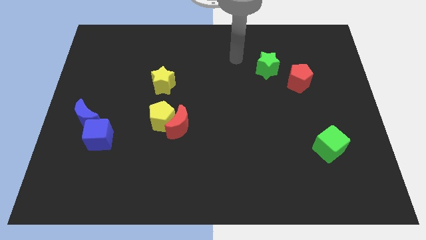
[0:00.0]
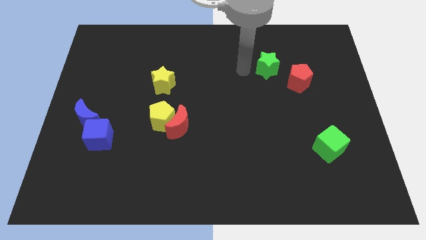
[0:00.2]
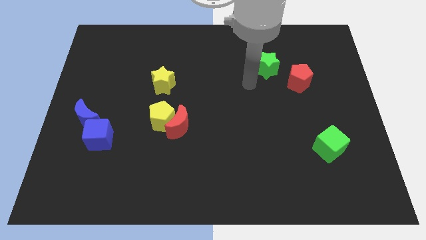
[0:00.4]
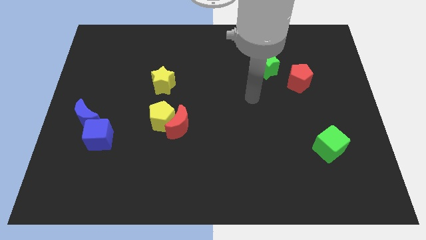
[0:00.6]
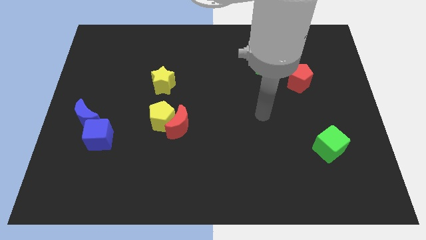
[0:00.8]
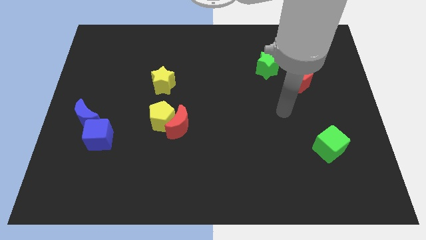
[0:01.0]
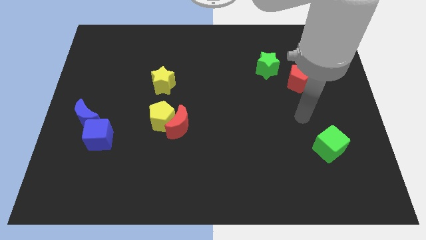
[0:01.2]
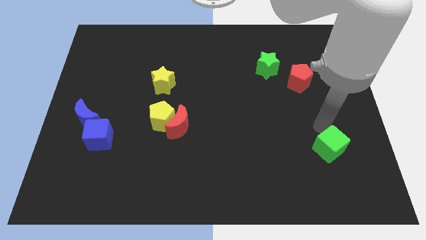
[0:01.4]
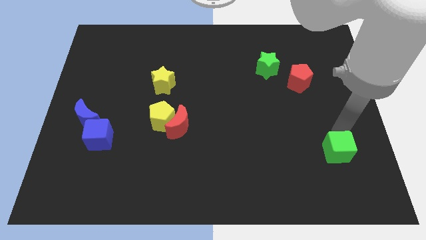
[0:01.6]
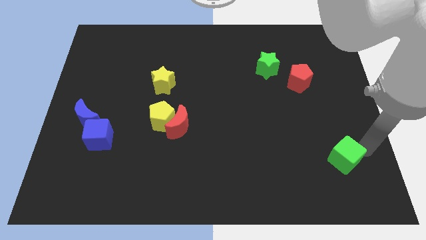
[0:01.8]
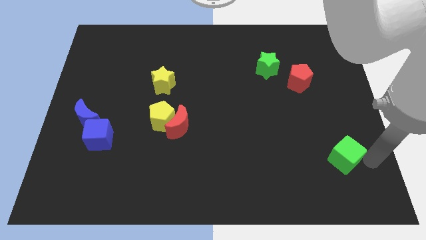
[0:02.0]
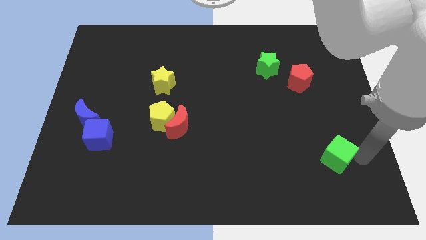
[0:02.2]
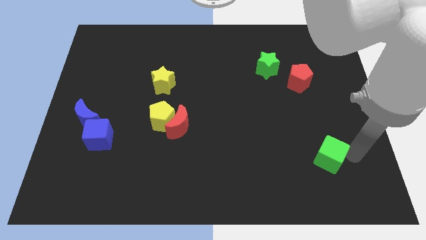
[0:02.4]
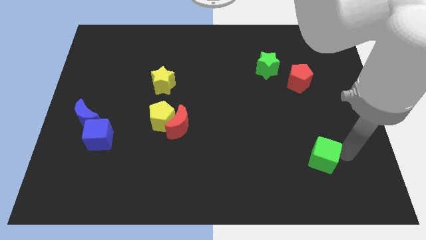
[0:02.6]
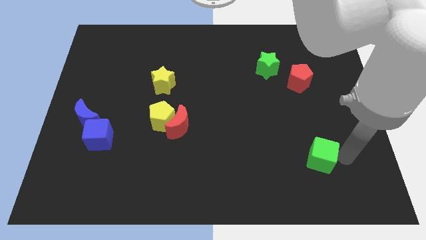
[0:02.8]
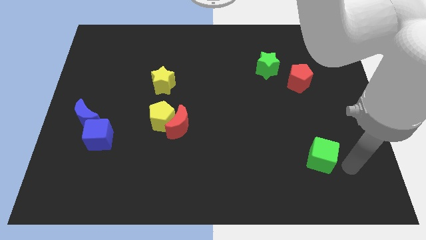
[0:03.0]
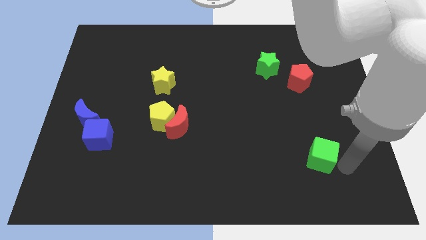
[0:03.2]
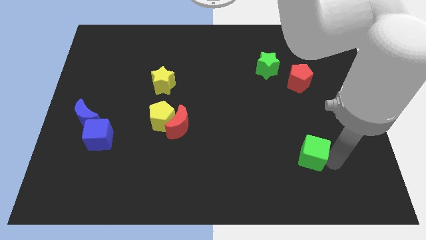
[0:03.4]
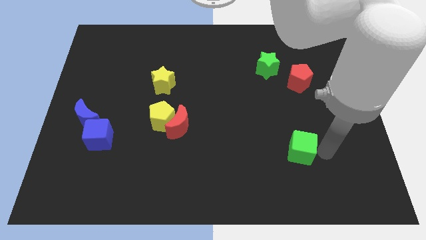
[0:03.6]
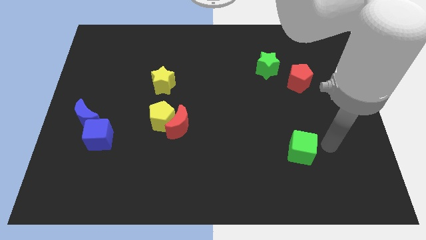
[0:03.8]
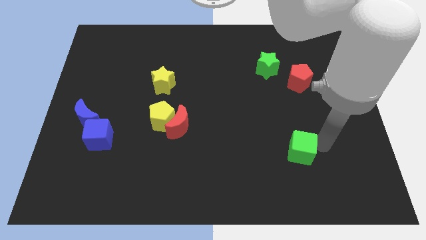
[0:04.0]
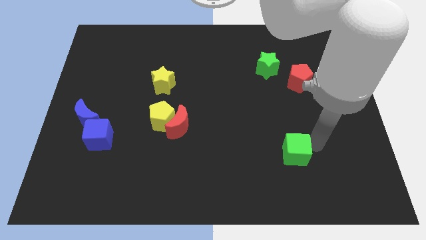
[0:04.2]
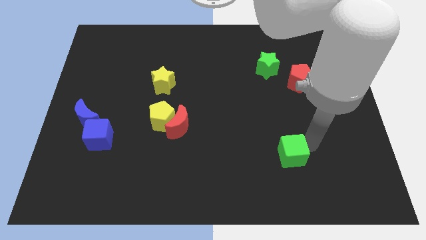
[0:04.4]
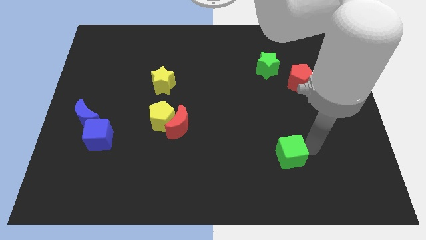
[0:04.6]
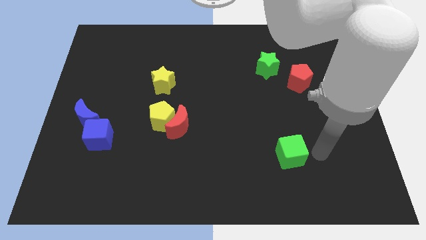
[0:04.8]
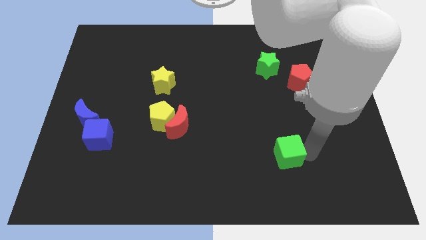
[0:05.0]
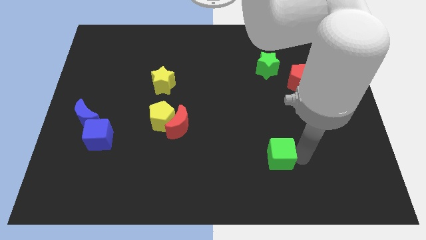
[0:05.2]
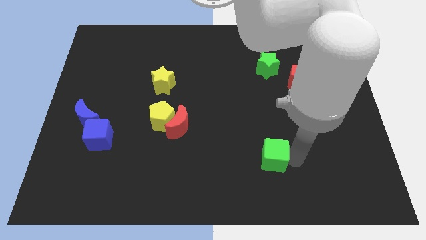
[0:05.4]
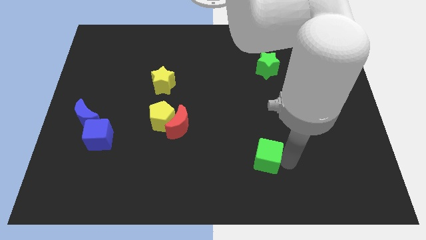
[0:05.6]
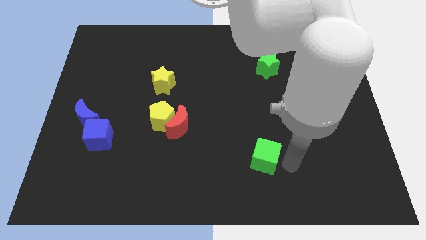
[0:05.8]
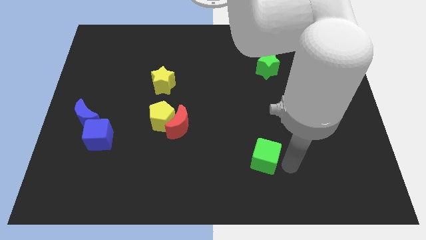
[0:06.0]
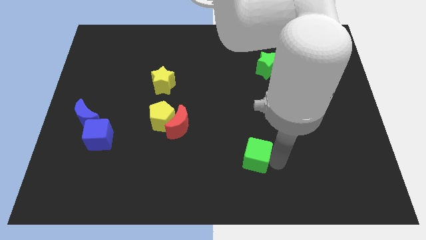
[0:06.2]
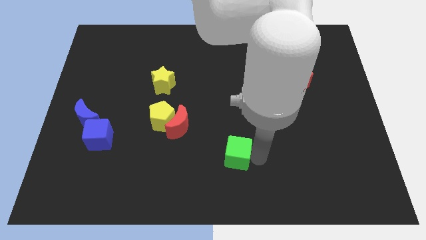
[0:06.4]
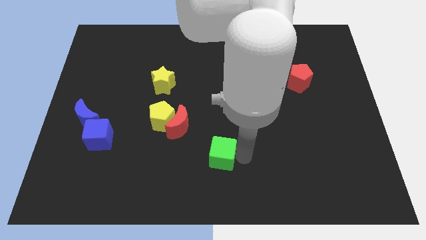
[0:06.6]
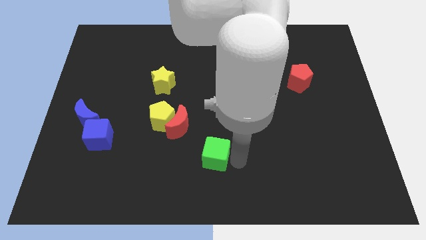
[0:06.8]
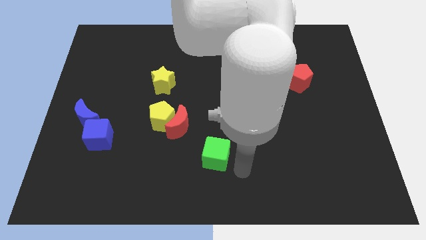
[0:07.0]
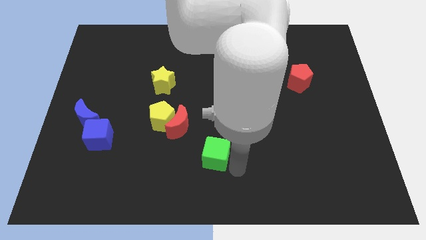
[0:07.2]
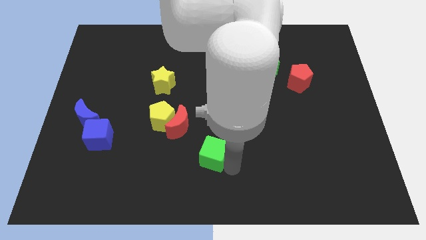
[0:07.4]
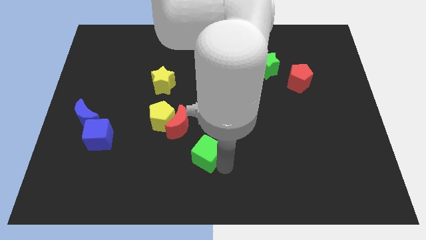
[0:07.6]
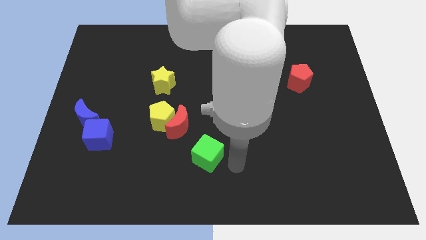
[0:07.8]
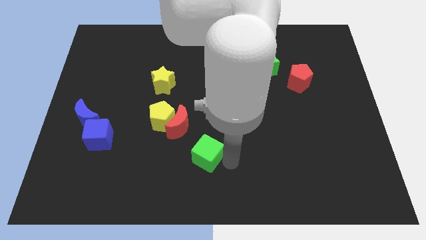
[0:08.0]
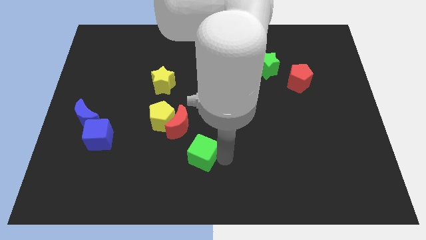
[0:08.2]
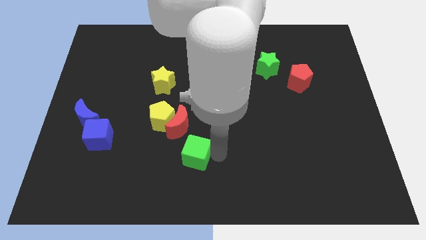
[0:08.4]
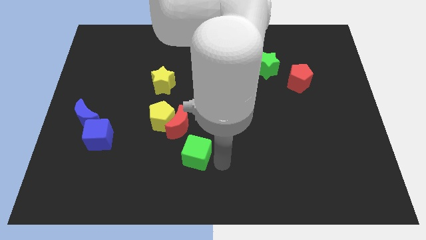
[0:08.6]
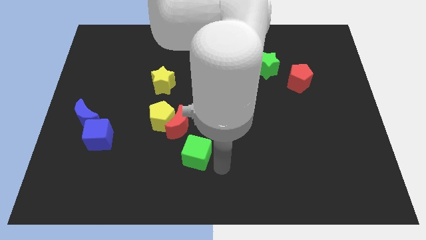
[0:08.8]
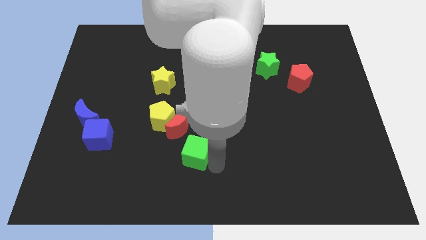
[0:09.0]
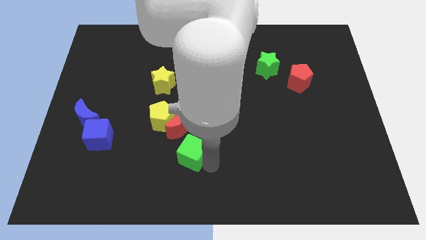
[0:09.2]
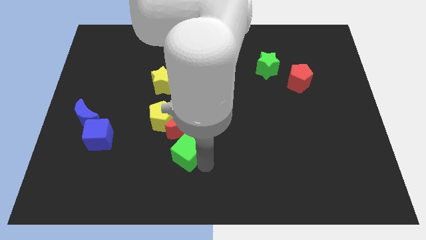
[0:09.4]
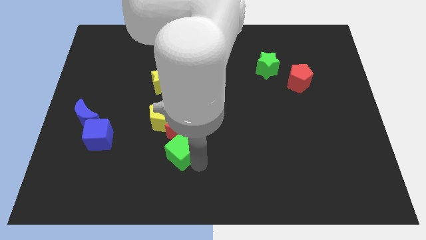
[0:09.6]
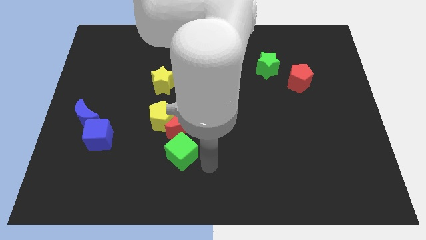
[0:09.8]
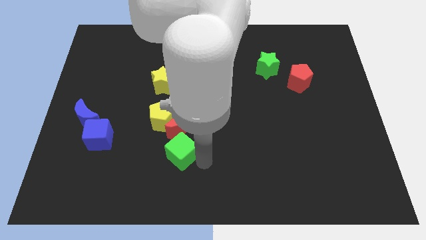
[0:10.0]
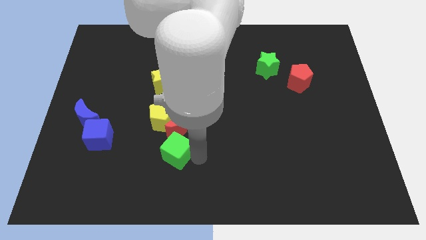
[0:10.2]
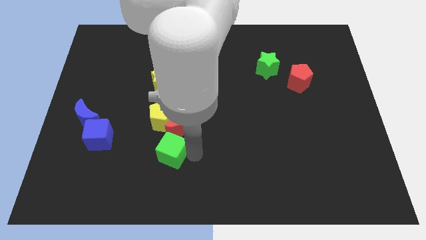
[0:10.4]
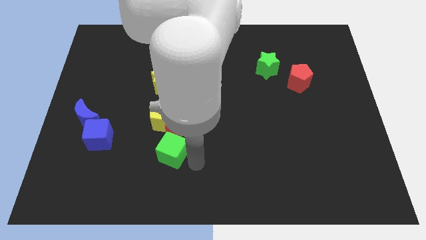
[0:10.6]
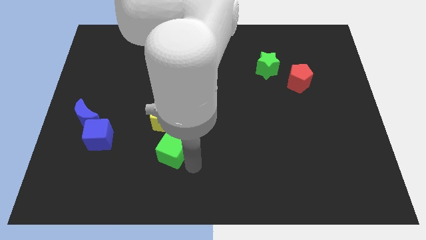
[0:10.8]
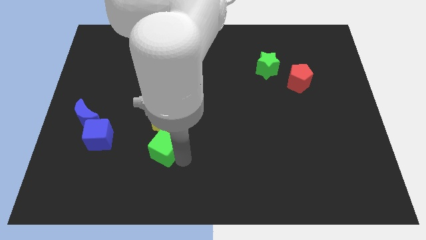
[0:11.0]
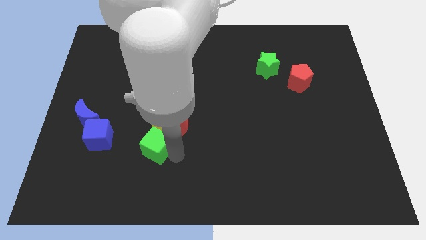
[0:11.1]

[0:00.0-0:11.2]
slide the green cube diagonally down and to the left of the yellow pentagon

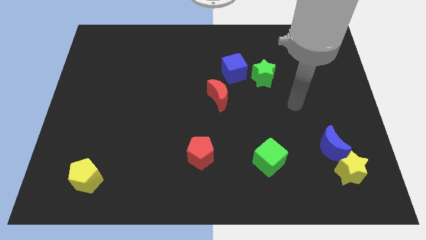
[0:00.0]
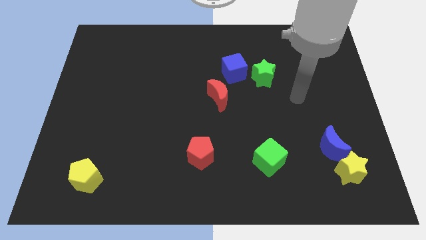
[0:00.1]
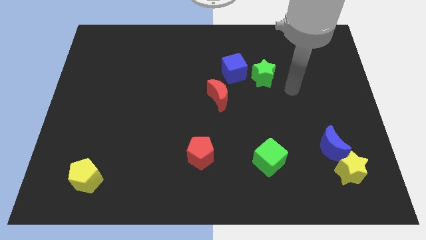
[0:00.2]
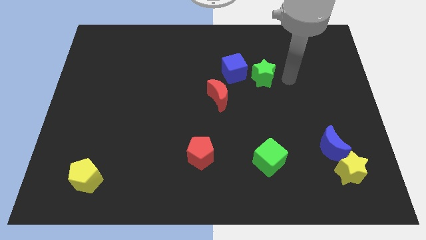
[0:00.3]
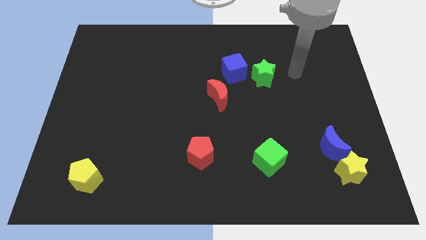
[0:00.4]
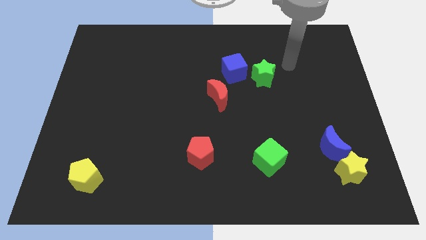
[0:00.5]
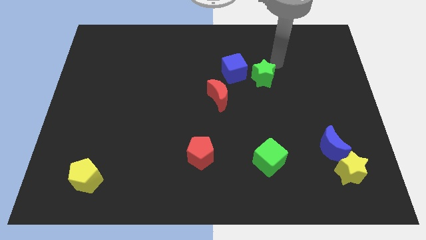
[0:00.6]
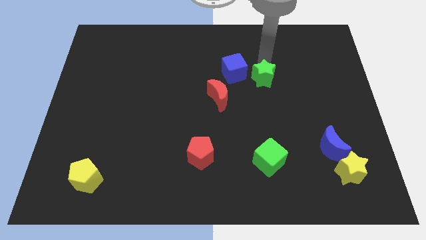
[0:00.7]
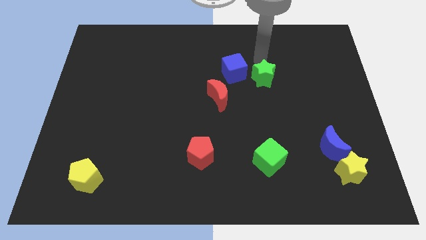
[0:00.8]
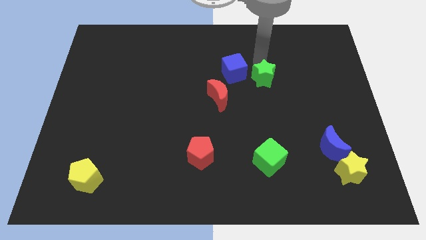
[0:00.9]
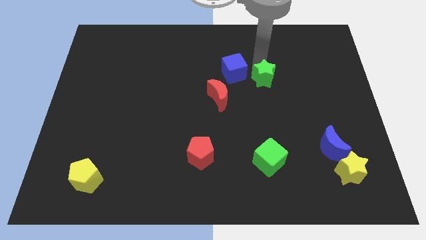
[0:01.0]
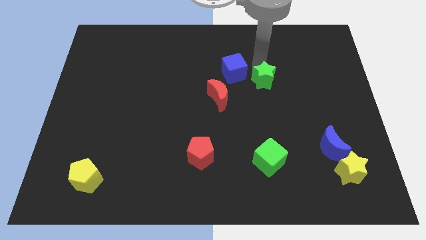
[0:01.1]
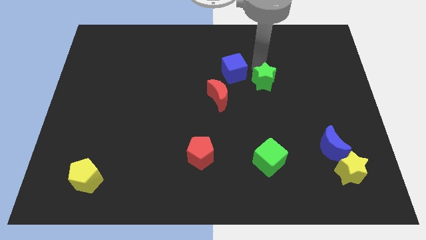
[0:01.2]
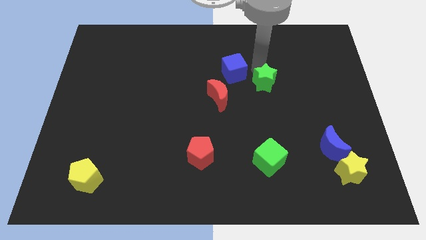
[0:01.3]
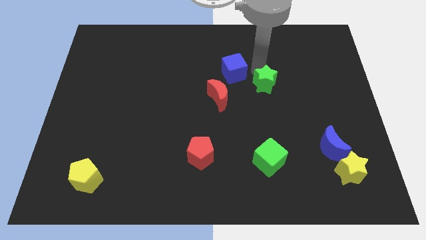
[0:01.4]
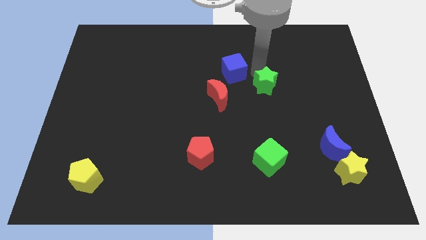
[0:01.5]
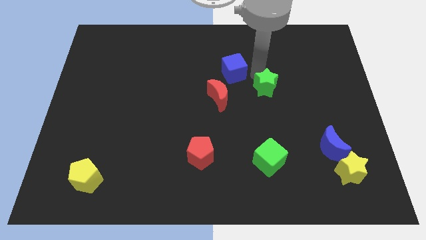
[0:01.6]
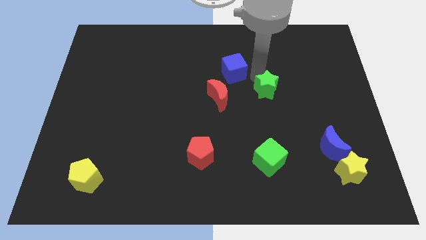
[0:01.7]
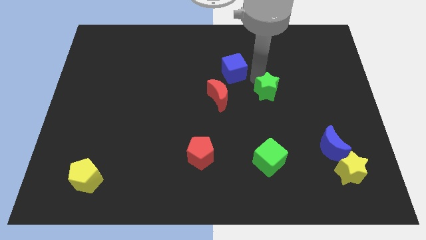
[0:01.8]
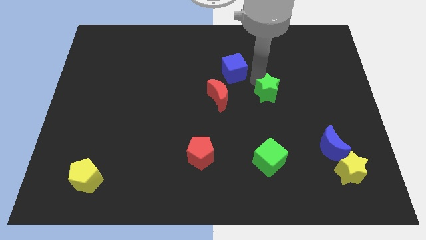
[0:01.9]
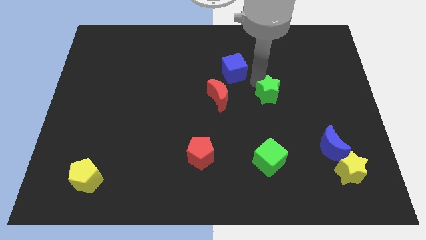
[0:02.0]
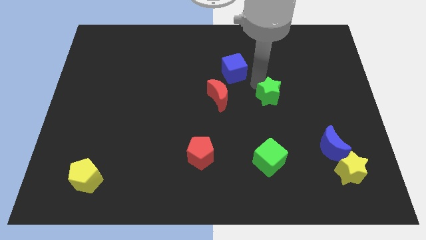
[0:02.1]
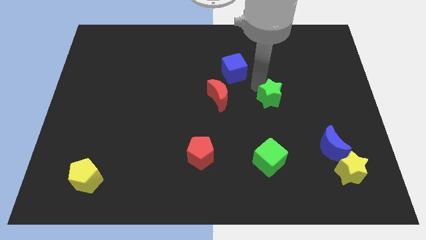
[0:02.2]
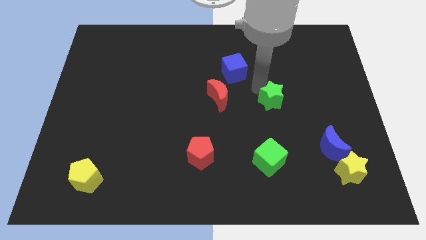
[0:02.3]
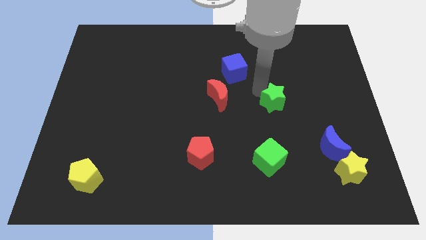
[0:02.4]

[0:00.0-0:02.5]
push the green star to the top of the green cube

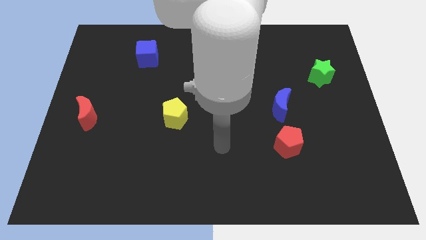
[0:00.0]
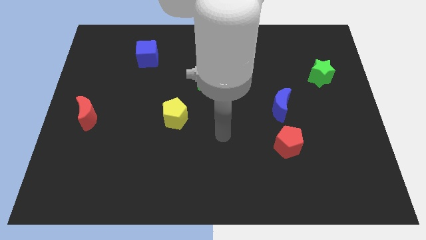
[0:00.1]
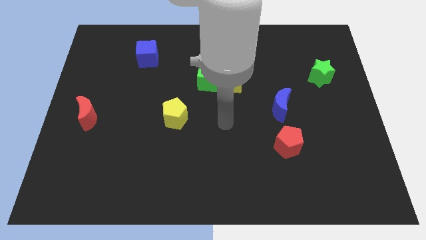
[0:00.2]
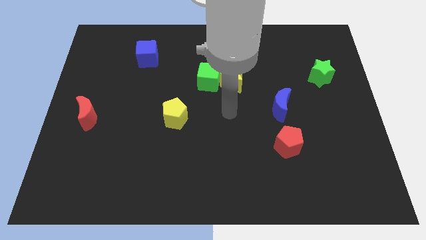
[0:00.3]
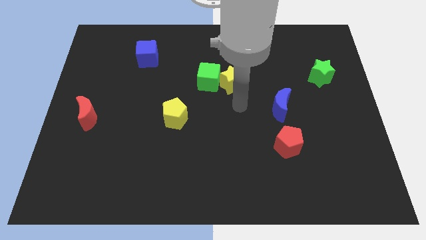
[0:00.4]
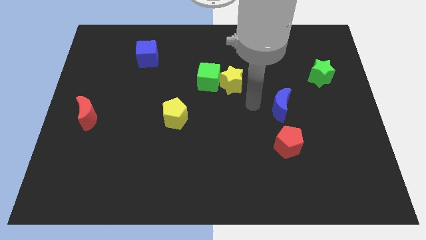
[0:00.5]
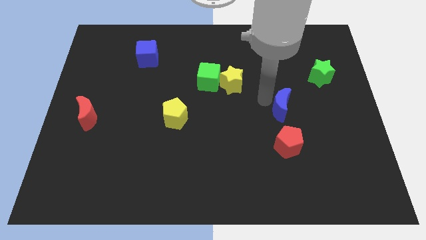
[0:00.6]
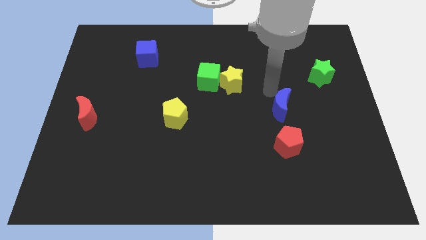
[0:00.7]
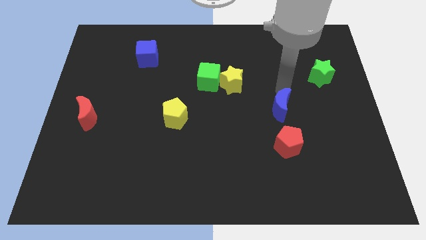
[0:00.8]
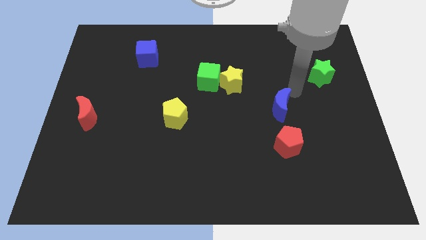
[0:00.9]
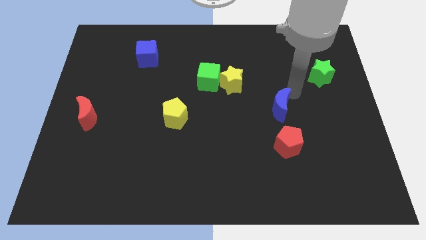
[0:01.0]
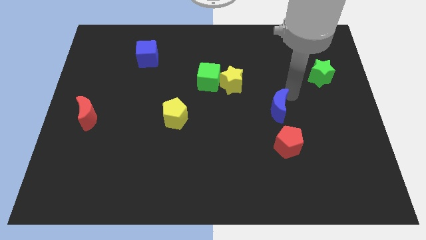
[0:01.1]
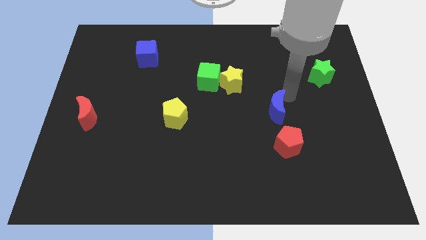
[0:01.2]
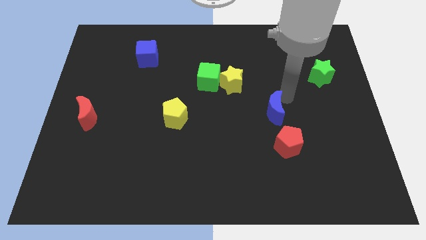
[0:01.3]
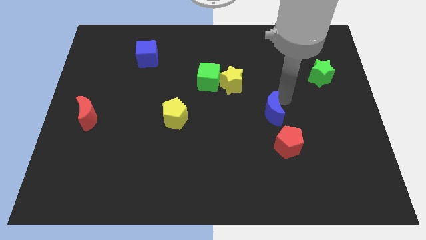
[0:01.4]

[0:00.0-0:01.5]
move the blue moon to the top left side of the red pentagon
